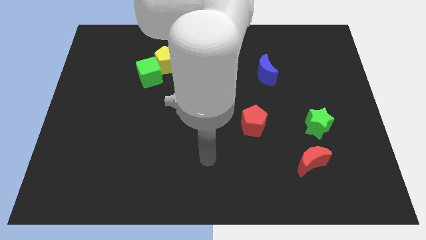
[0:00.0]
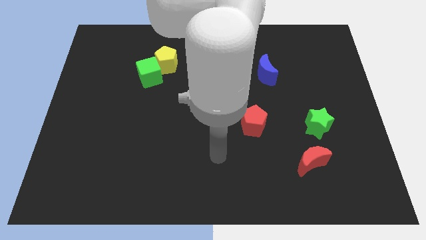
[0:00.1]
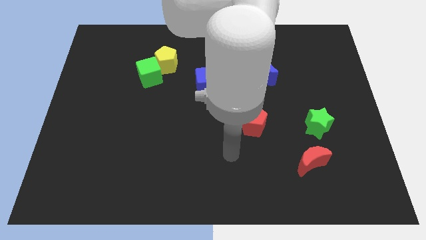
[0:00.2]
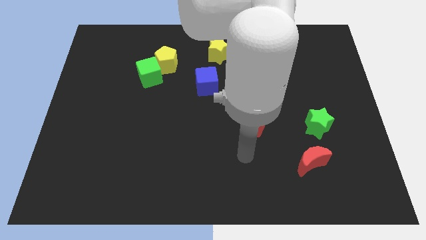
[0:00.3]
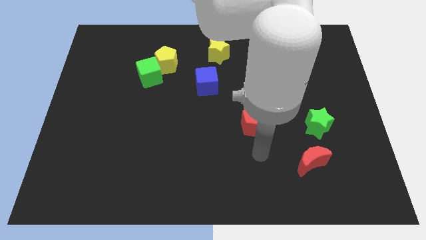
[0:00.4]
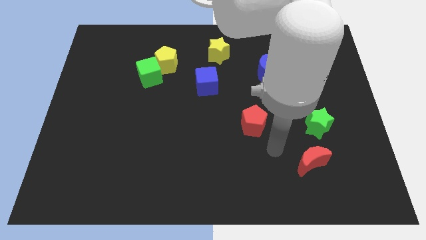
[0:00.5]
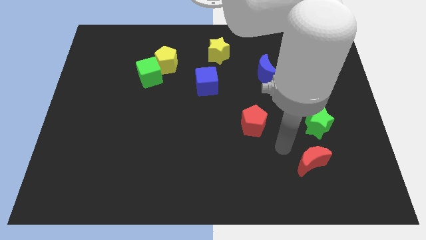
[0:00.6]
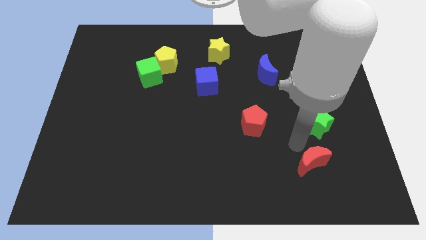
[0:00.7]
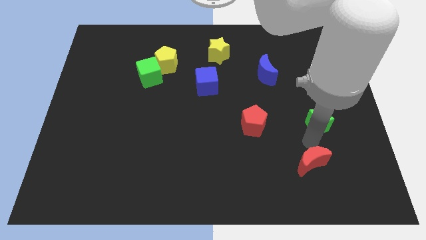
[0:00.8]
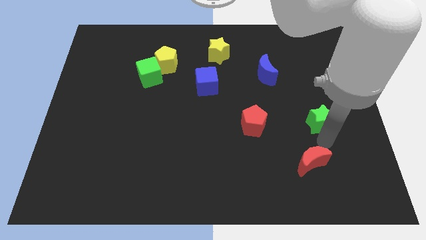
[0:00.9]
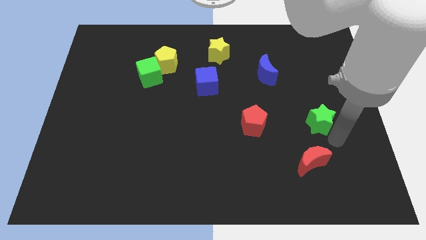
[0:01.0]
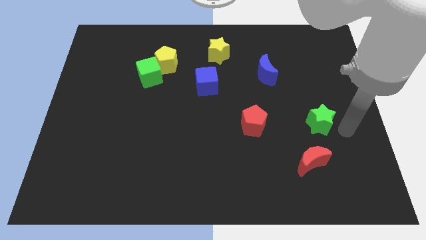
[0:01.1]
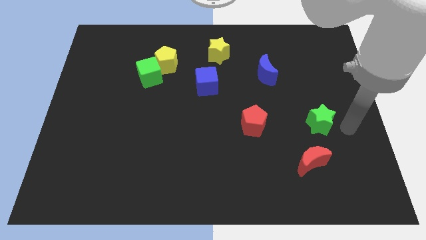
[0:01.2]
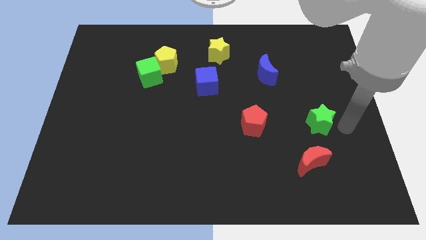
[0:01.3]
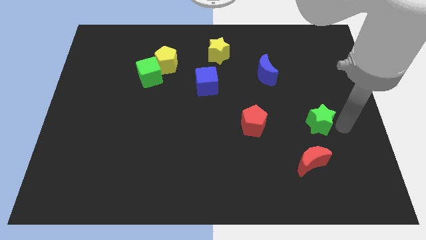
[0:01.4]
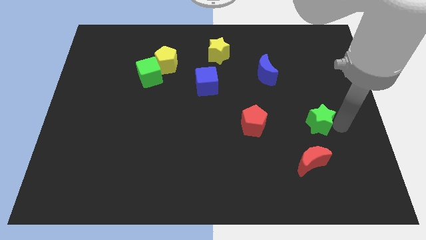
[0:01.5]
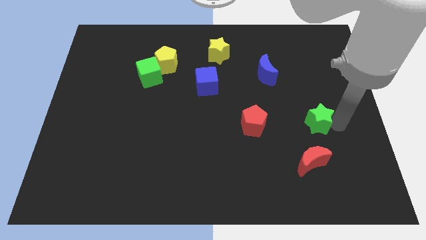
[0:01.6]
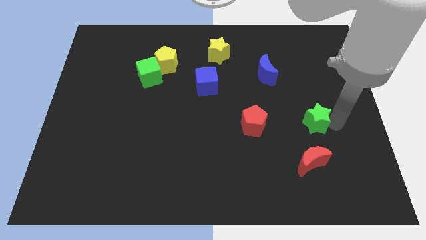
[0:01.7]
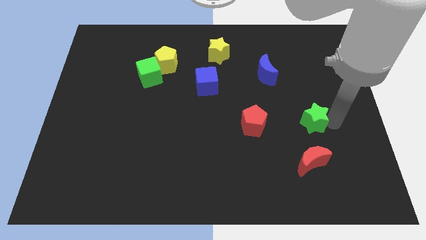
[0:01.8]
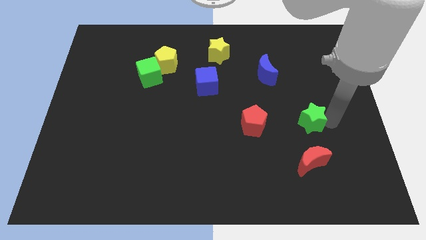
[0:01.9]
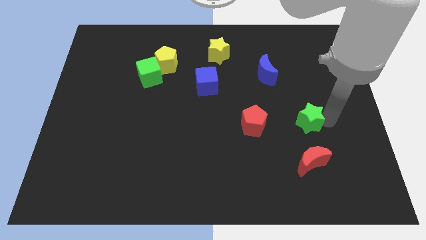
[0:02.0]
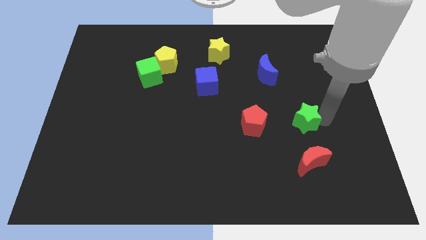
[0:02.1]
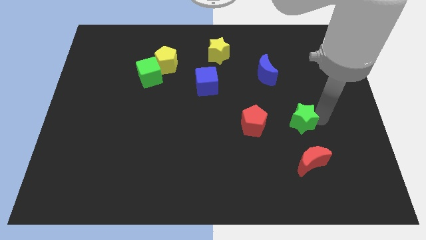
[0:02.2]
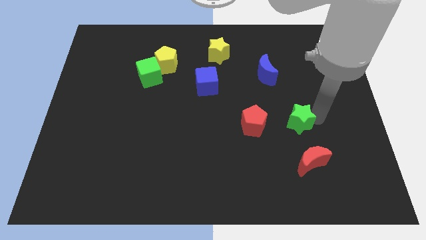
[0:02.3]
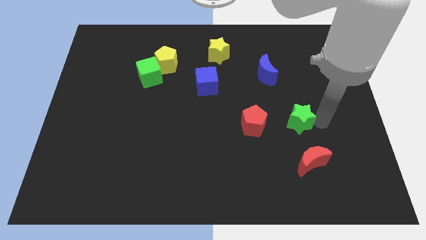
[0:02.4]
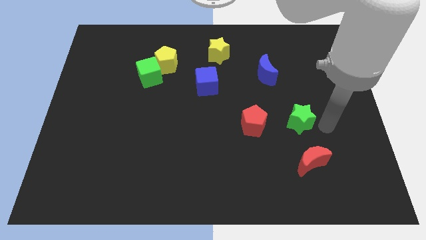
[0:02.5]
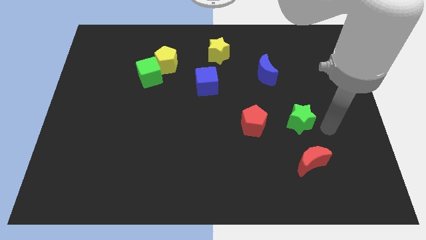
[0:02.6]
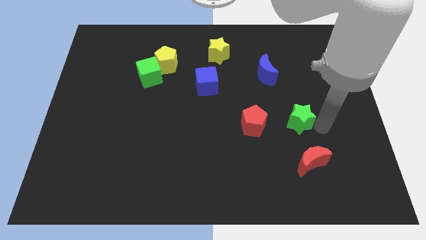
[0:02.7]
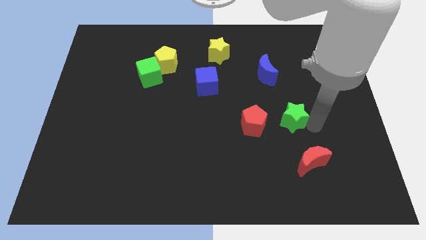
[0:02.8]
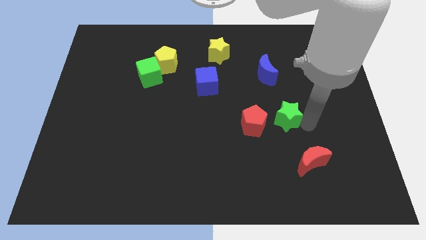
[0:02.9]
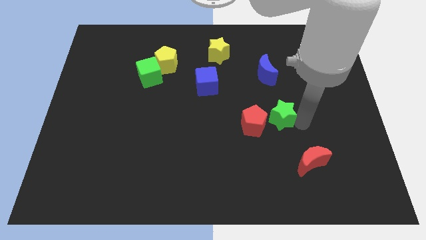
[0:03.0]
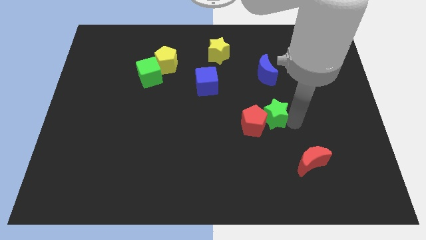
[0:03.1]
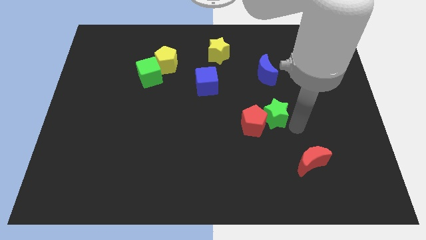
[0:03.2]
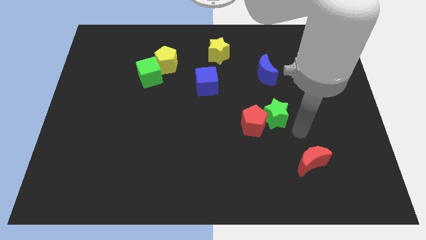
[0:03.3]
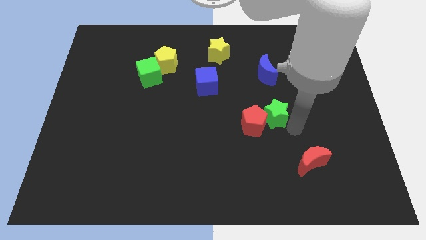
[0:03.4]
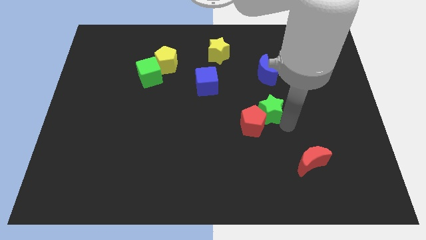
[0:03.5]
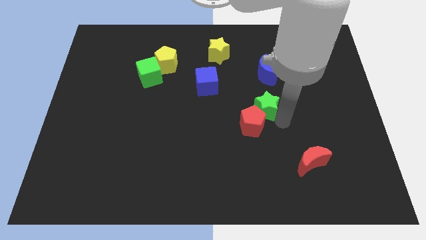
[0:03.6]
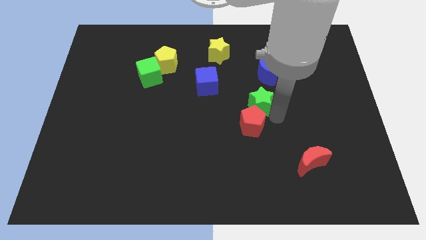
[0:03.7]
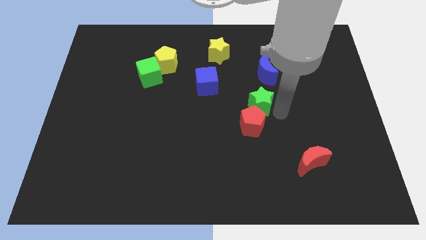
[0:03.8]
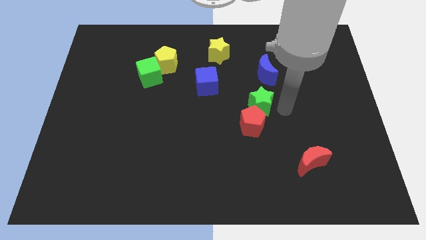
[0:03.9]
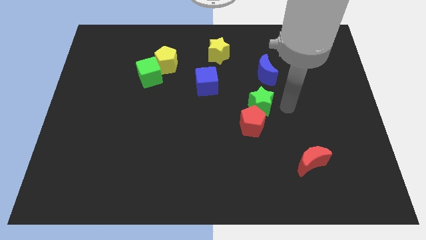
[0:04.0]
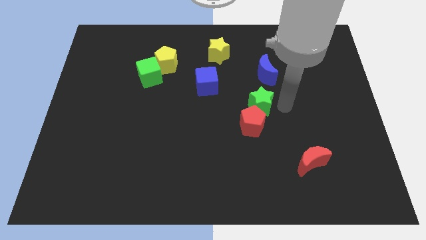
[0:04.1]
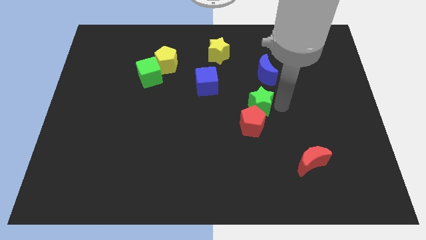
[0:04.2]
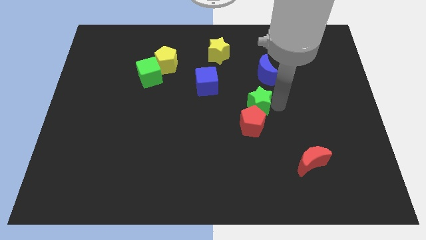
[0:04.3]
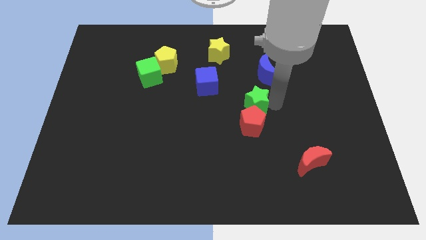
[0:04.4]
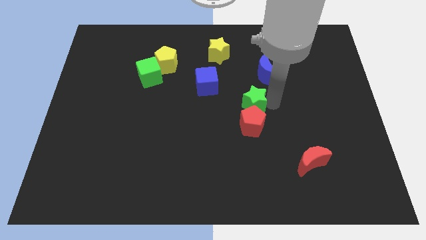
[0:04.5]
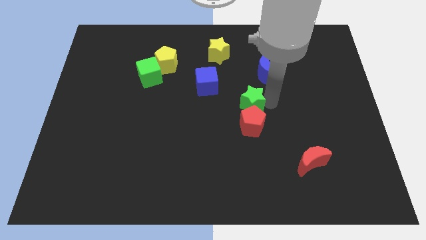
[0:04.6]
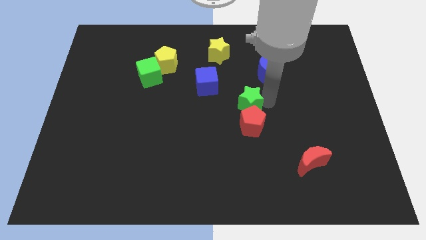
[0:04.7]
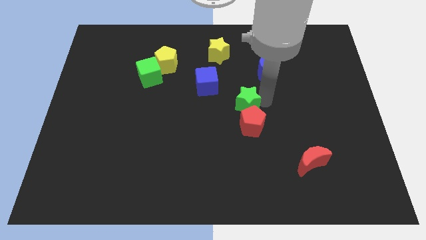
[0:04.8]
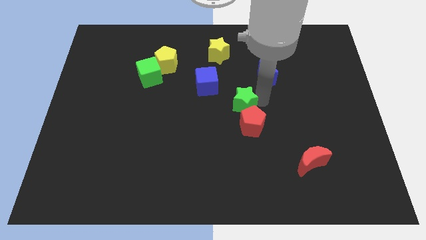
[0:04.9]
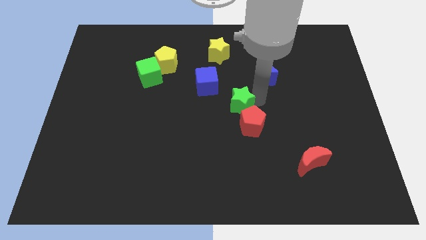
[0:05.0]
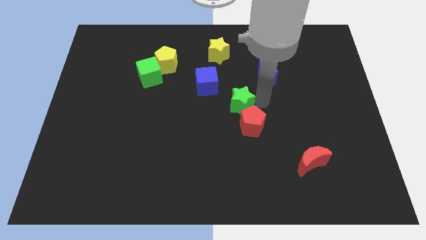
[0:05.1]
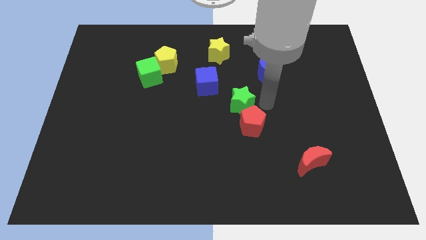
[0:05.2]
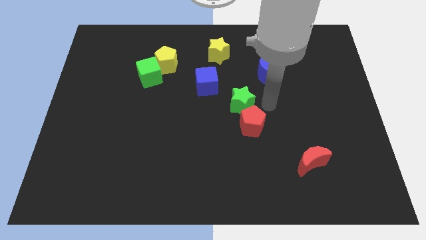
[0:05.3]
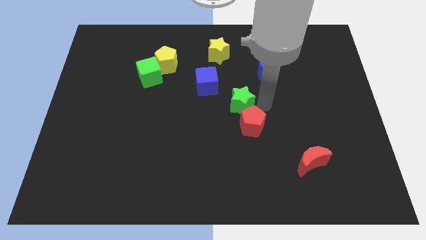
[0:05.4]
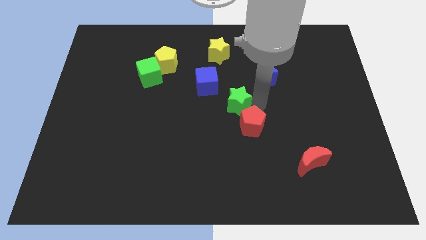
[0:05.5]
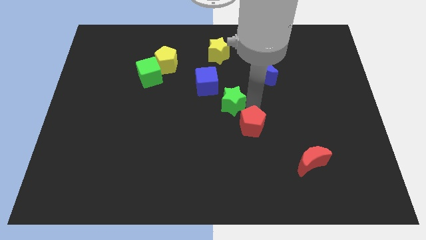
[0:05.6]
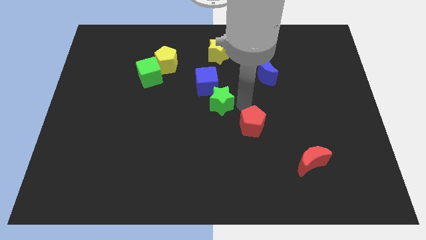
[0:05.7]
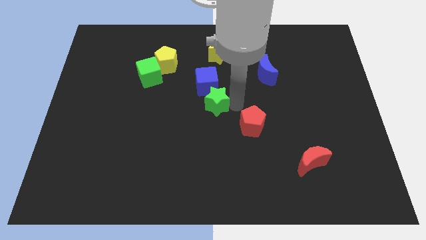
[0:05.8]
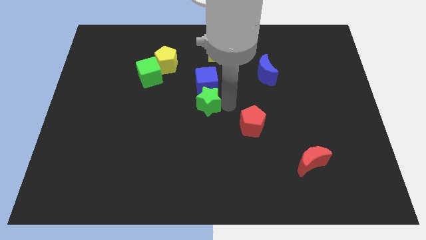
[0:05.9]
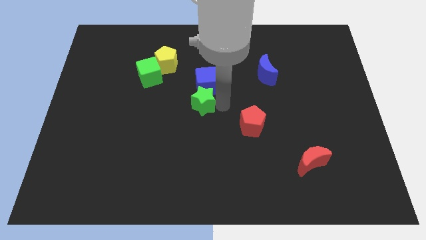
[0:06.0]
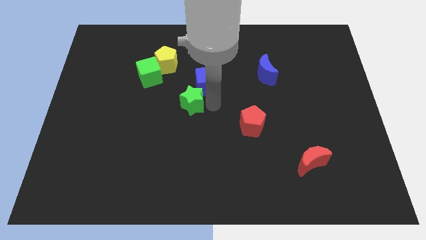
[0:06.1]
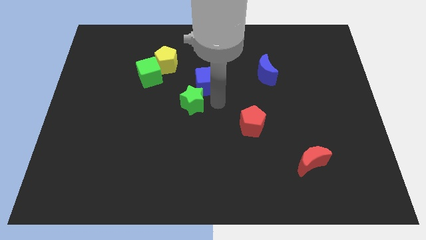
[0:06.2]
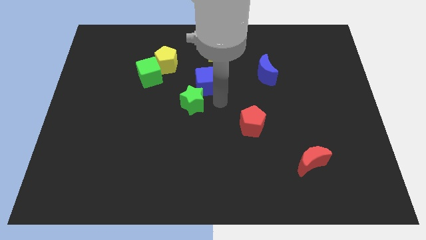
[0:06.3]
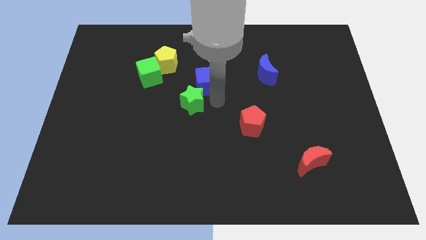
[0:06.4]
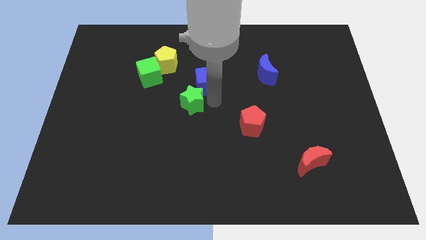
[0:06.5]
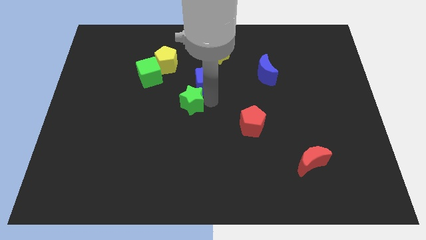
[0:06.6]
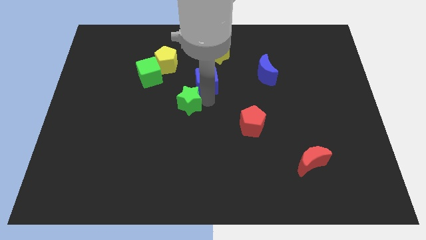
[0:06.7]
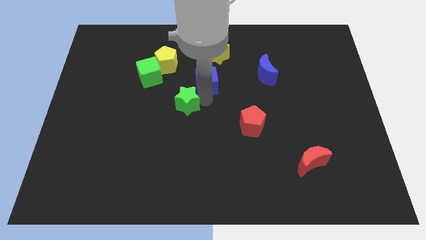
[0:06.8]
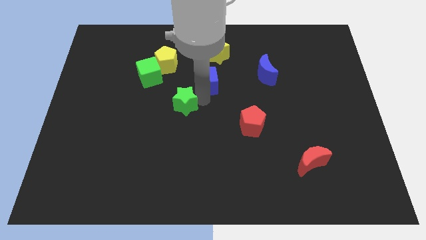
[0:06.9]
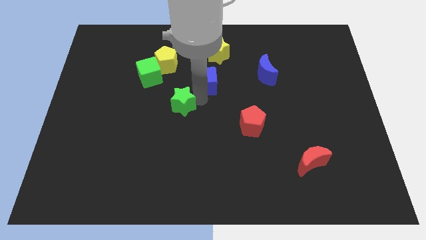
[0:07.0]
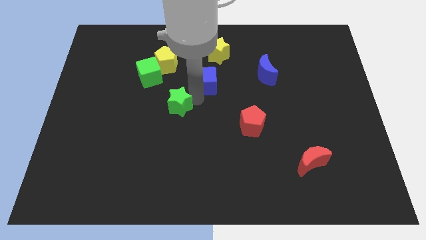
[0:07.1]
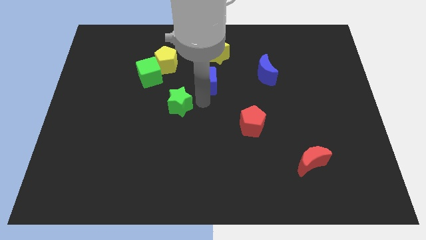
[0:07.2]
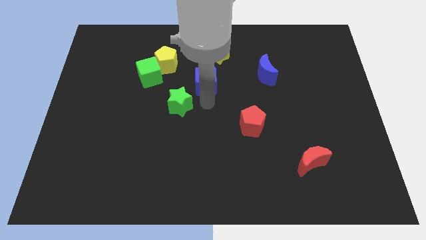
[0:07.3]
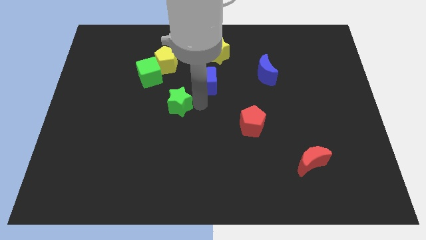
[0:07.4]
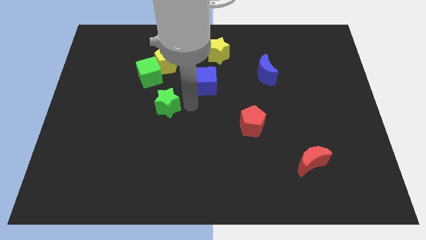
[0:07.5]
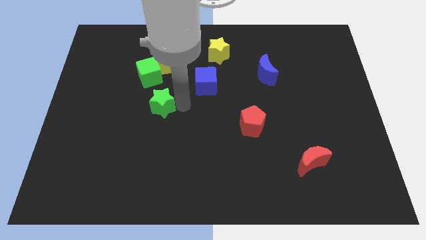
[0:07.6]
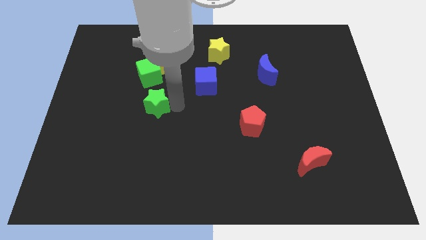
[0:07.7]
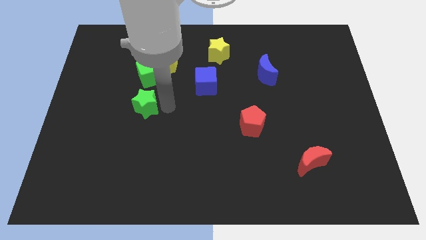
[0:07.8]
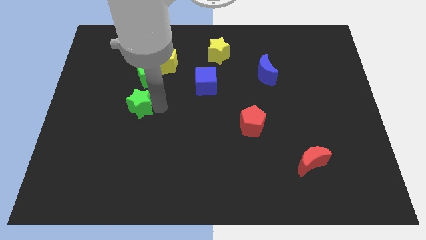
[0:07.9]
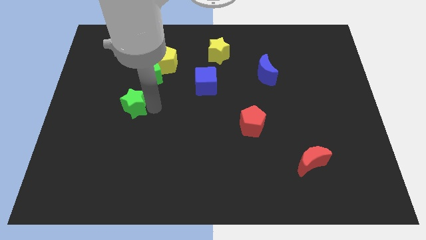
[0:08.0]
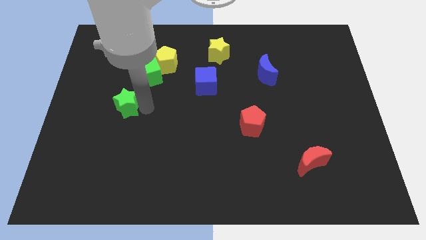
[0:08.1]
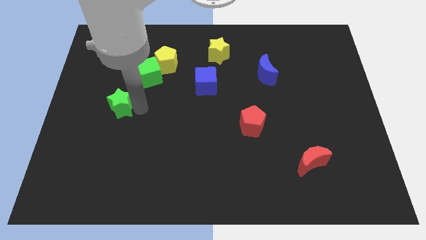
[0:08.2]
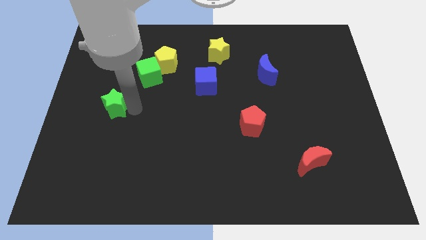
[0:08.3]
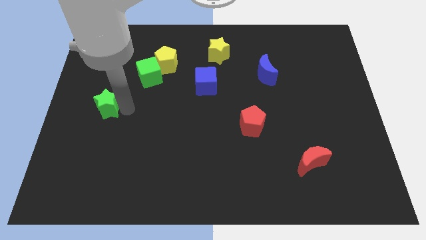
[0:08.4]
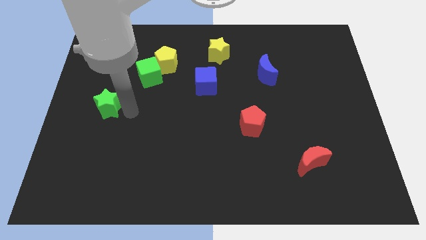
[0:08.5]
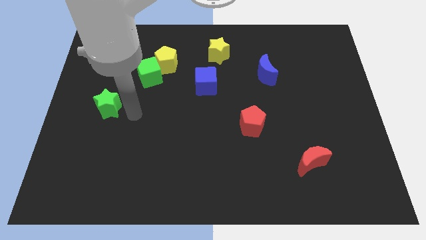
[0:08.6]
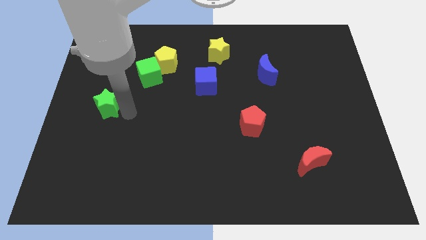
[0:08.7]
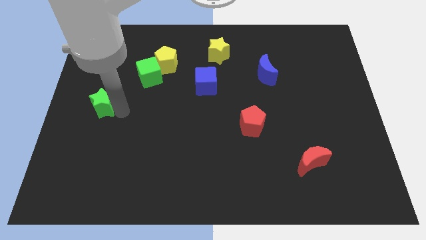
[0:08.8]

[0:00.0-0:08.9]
push the green star to the left side of the board
